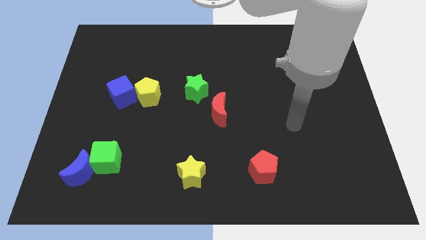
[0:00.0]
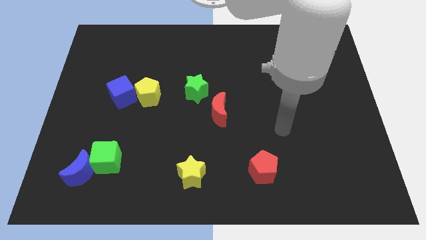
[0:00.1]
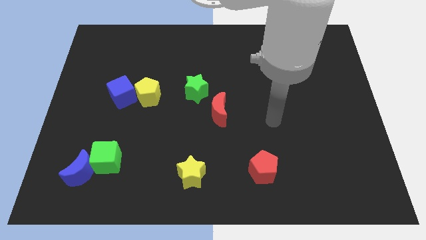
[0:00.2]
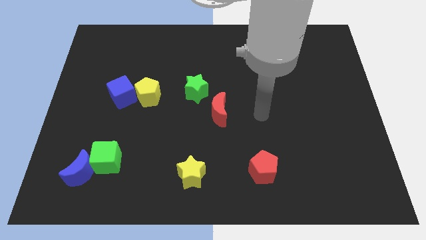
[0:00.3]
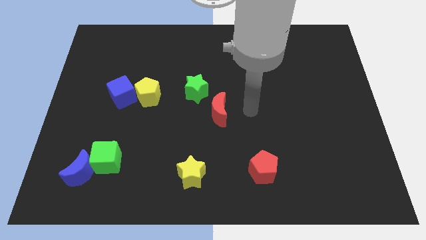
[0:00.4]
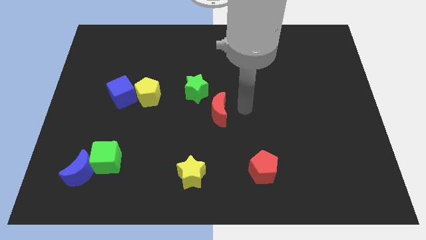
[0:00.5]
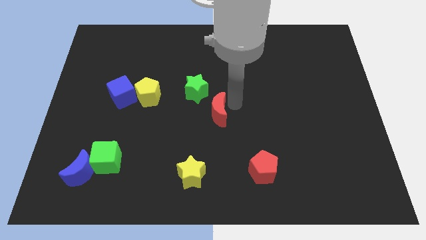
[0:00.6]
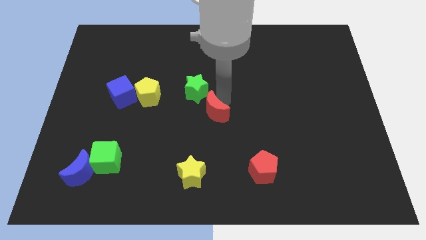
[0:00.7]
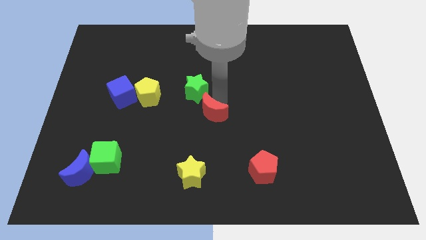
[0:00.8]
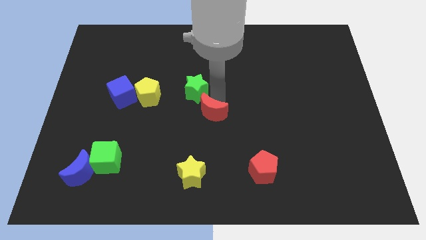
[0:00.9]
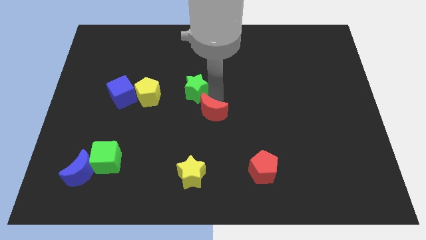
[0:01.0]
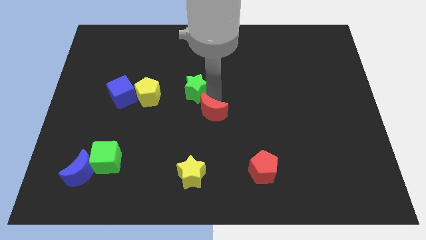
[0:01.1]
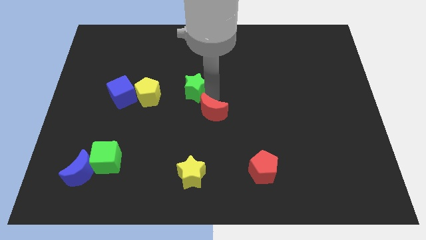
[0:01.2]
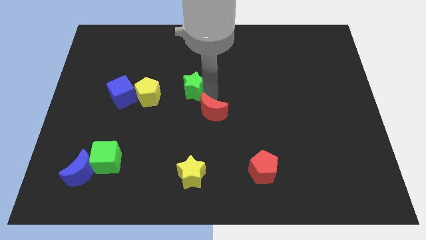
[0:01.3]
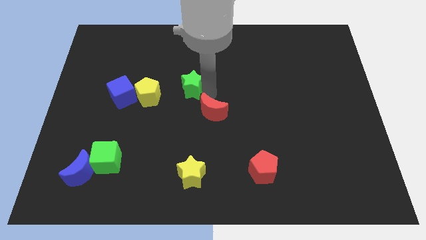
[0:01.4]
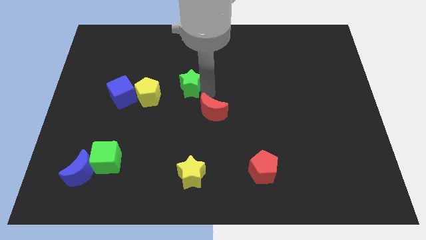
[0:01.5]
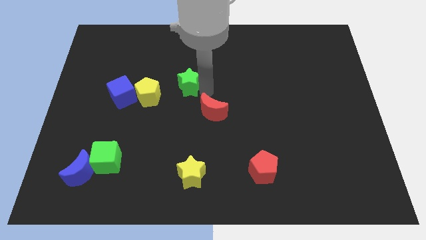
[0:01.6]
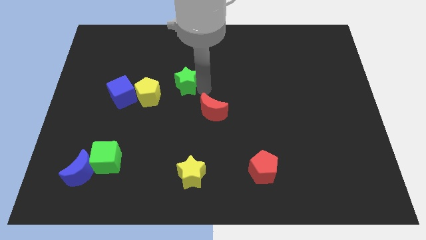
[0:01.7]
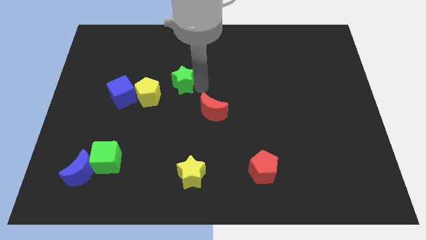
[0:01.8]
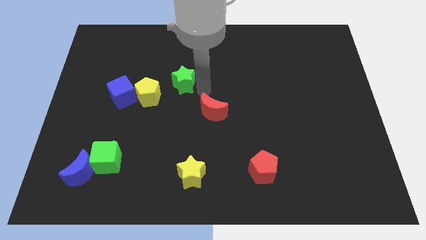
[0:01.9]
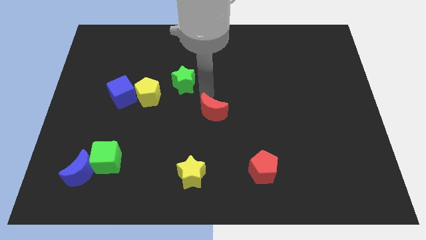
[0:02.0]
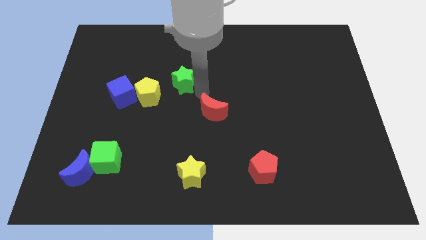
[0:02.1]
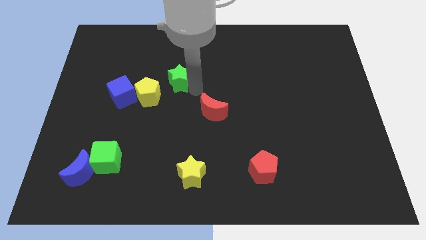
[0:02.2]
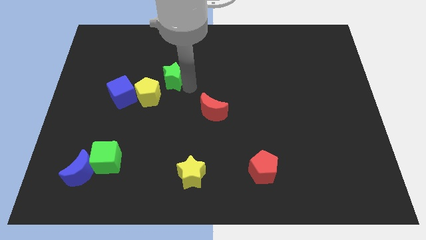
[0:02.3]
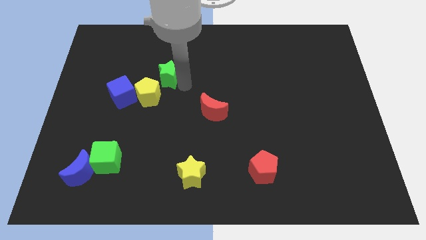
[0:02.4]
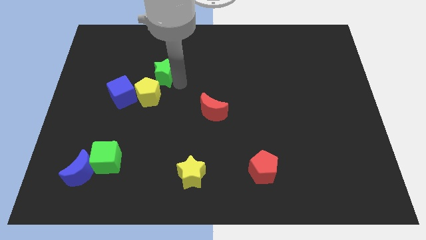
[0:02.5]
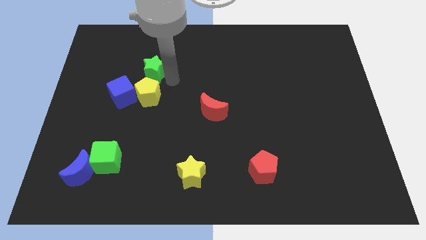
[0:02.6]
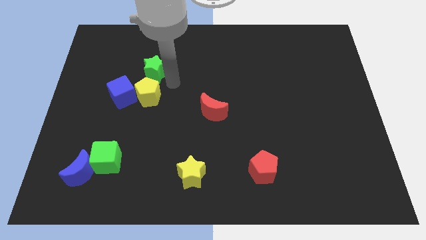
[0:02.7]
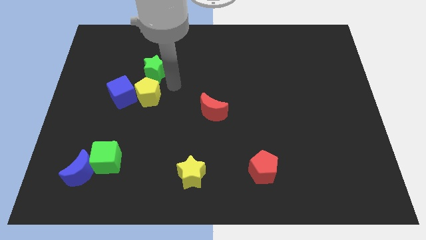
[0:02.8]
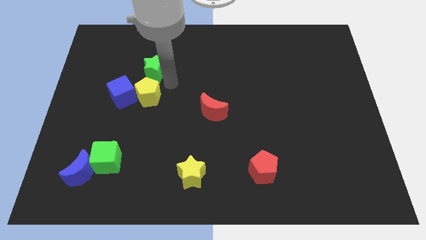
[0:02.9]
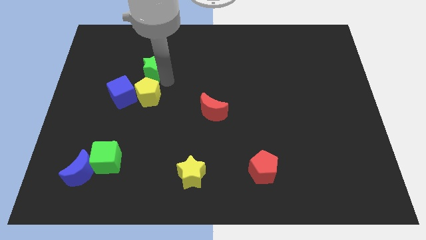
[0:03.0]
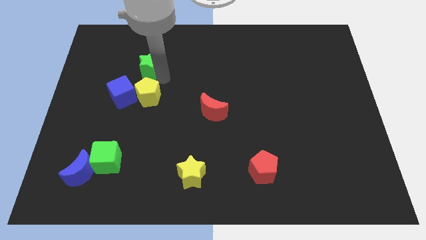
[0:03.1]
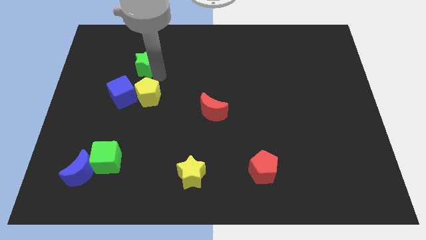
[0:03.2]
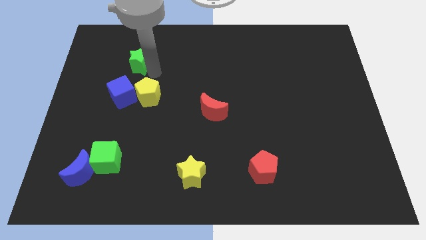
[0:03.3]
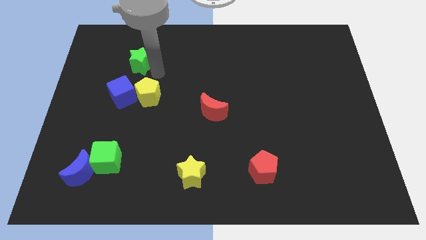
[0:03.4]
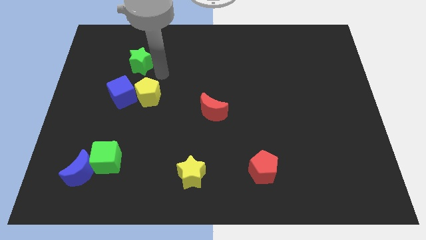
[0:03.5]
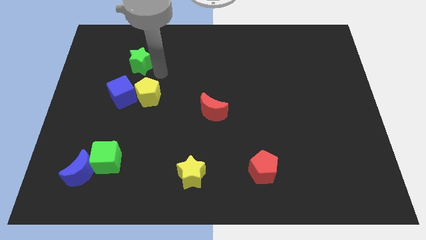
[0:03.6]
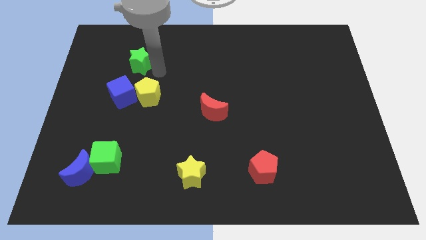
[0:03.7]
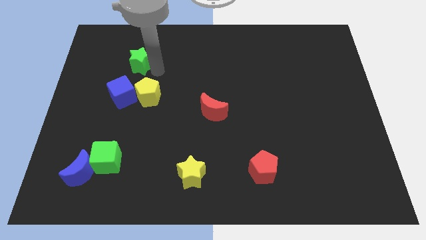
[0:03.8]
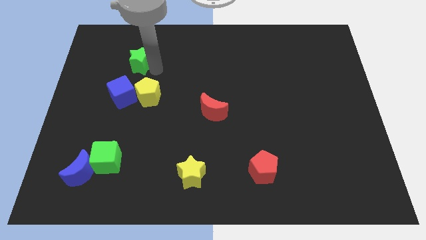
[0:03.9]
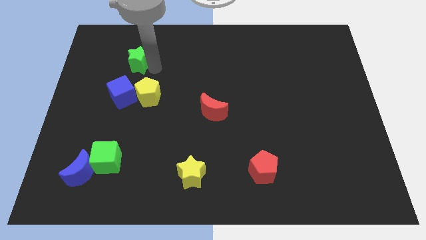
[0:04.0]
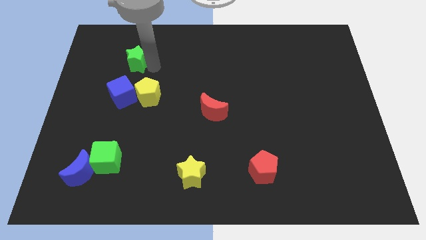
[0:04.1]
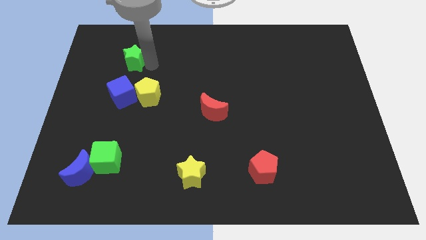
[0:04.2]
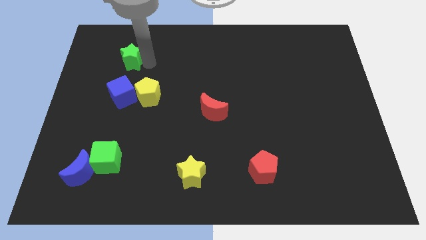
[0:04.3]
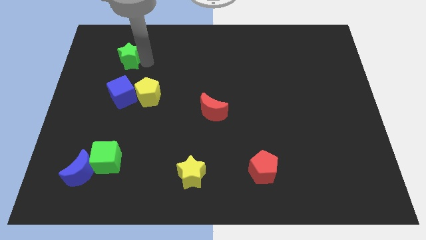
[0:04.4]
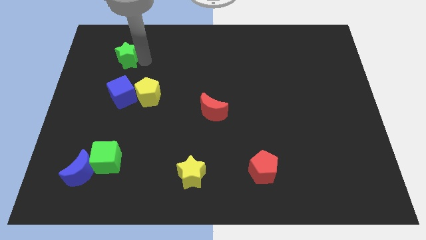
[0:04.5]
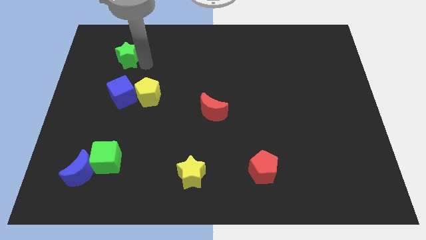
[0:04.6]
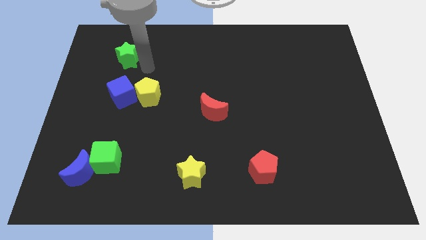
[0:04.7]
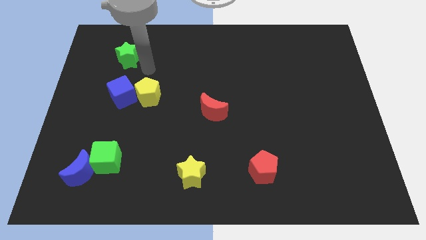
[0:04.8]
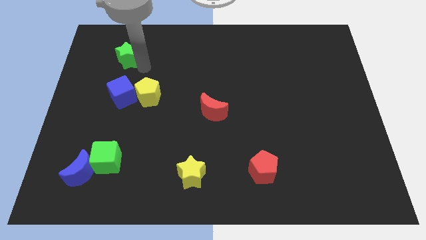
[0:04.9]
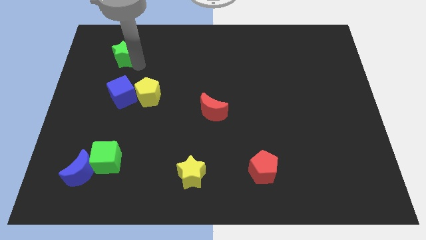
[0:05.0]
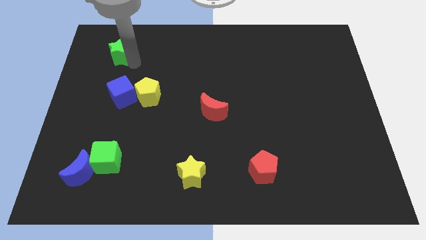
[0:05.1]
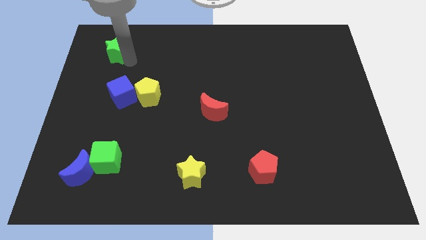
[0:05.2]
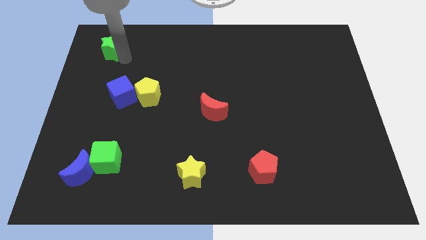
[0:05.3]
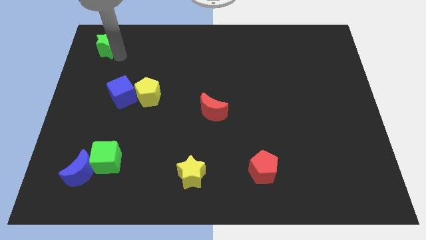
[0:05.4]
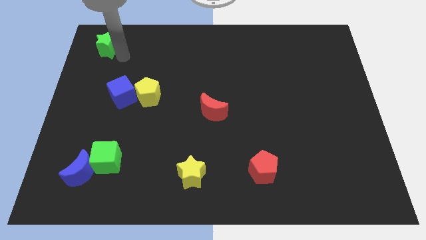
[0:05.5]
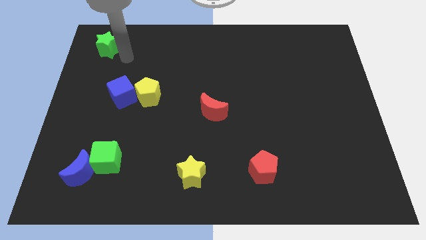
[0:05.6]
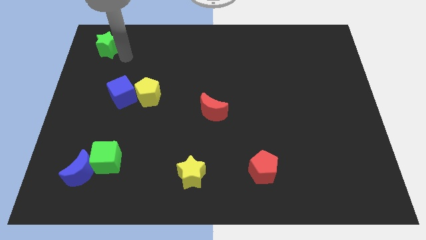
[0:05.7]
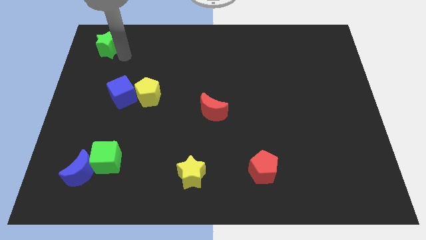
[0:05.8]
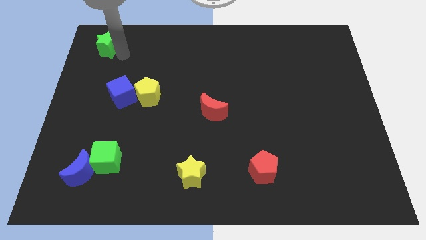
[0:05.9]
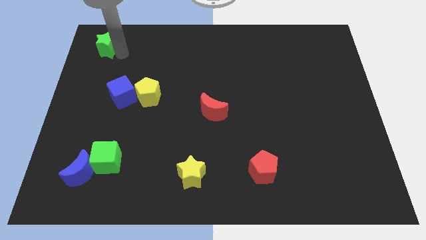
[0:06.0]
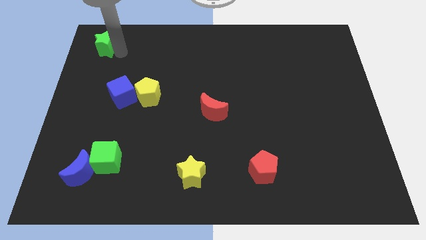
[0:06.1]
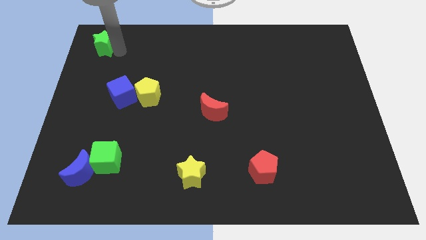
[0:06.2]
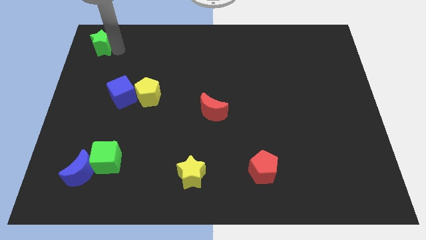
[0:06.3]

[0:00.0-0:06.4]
move the green star to the top left of the board

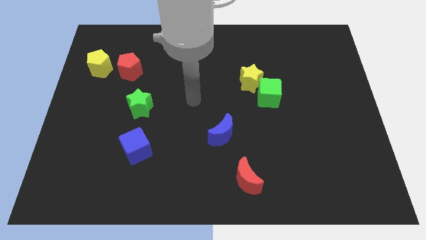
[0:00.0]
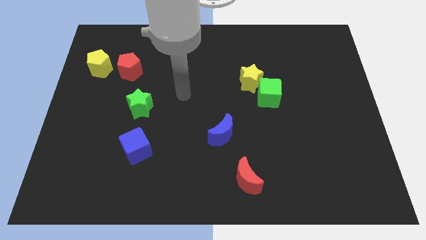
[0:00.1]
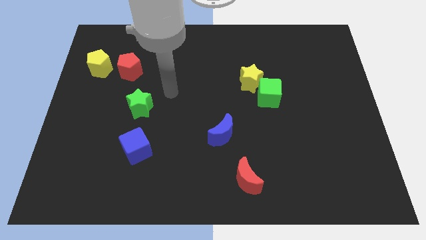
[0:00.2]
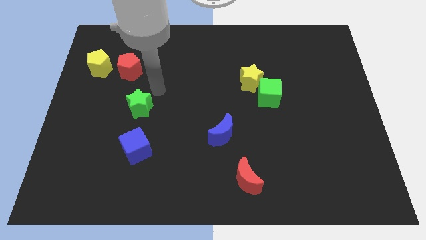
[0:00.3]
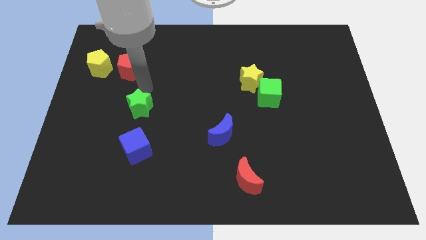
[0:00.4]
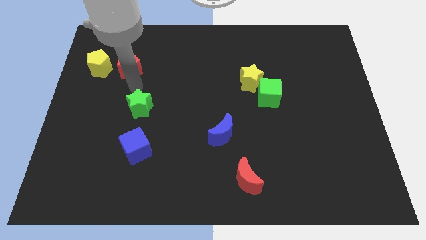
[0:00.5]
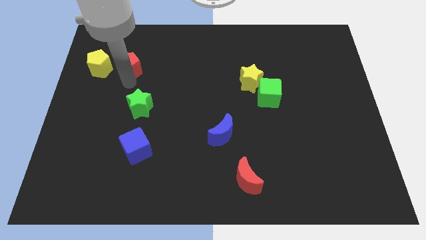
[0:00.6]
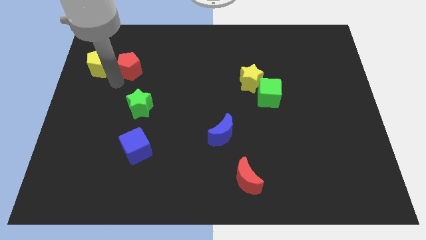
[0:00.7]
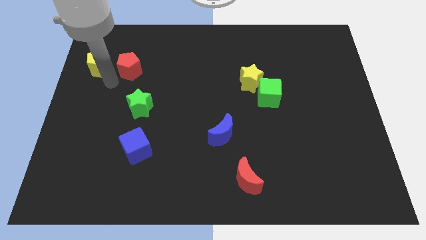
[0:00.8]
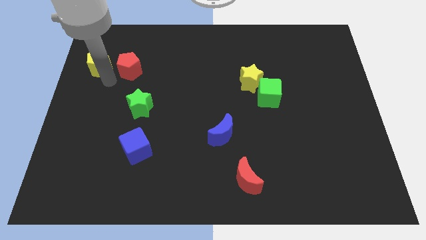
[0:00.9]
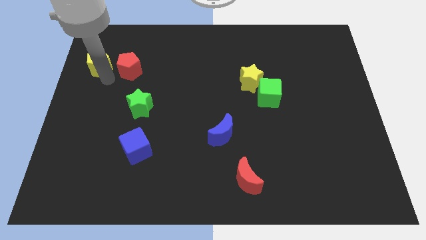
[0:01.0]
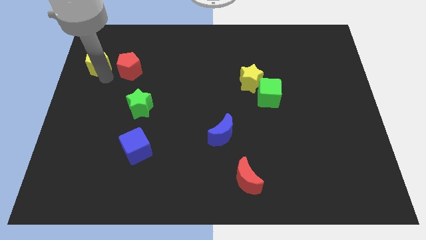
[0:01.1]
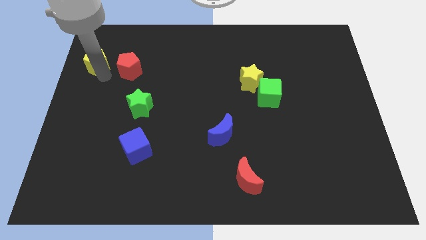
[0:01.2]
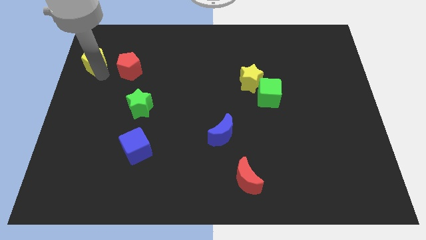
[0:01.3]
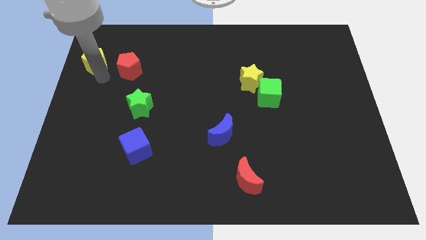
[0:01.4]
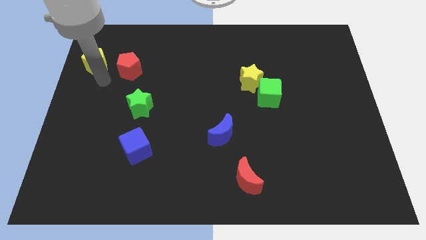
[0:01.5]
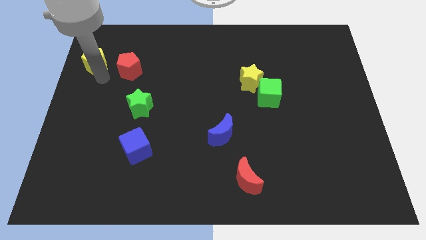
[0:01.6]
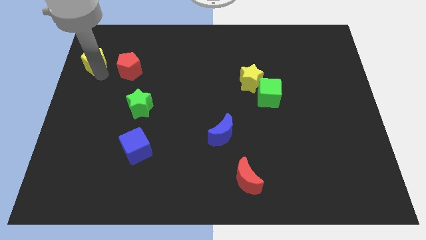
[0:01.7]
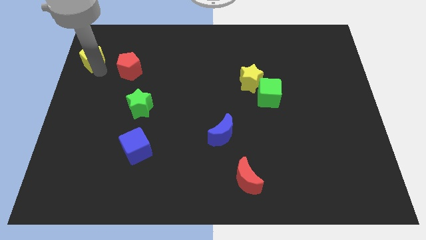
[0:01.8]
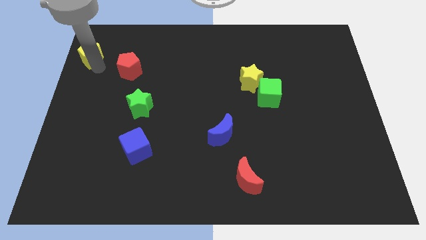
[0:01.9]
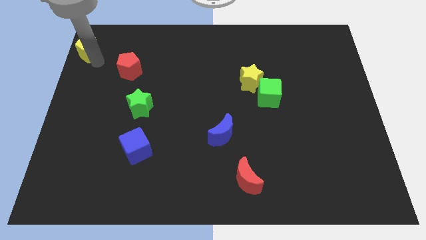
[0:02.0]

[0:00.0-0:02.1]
move the yellow pentagon to the top left corner
